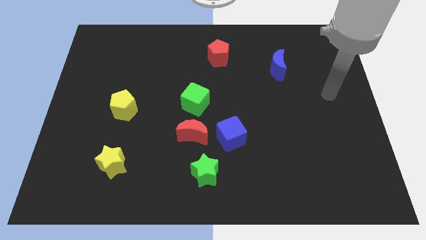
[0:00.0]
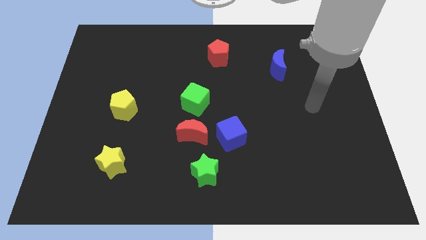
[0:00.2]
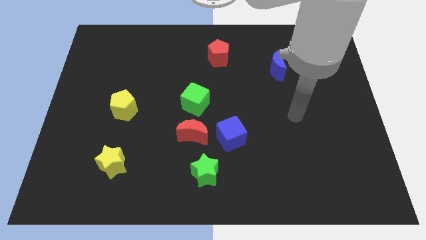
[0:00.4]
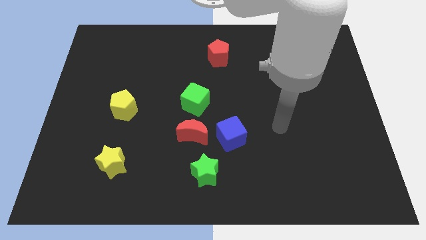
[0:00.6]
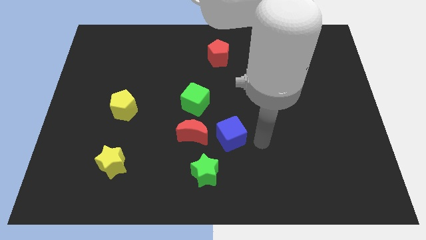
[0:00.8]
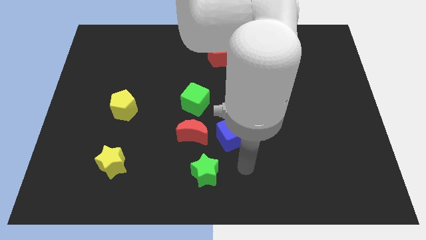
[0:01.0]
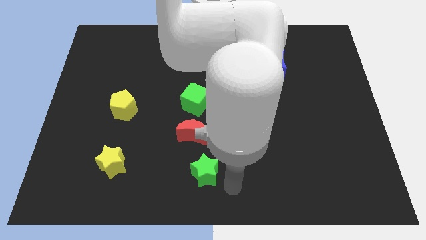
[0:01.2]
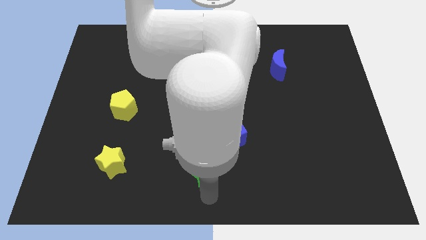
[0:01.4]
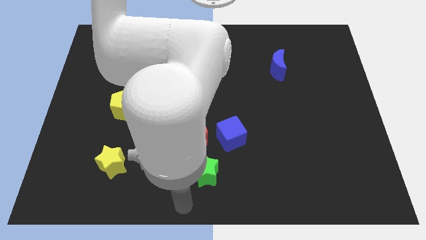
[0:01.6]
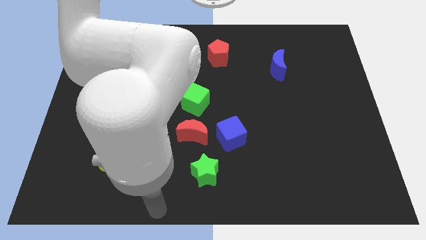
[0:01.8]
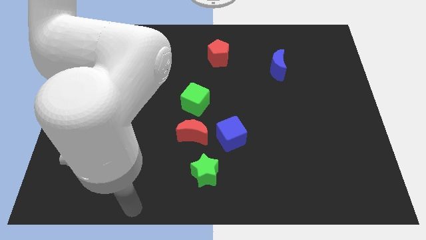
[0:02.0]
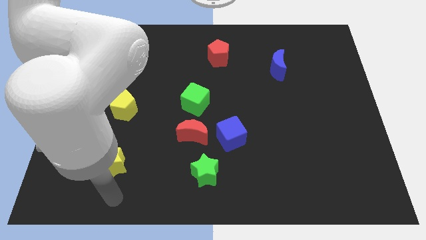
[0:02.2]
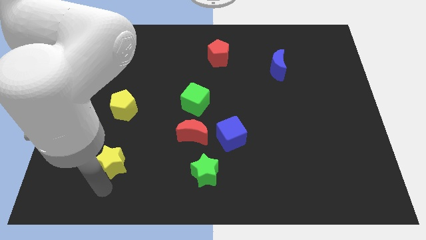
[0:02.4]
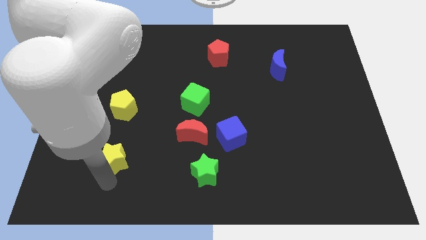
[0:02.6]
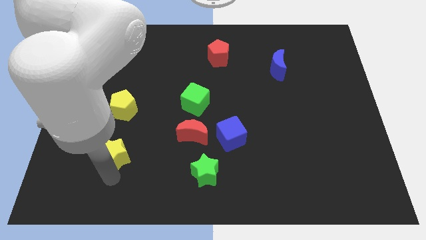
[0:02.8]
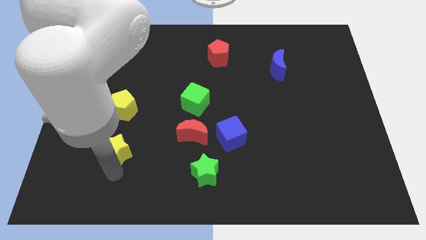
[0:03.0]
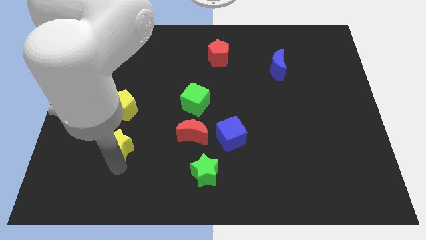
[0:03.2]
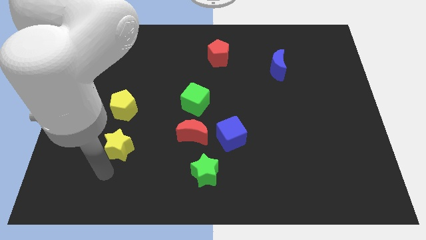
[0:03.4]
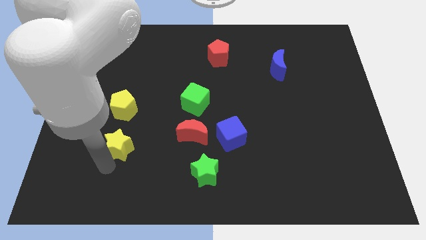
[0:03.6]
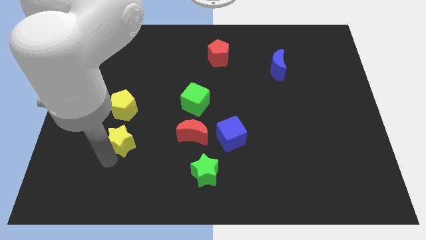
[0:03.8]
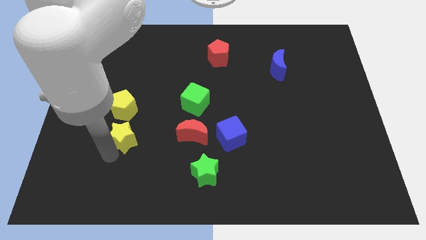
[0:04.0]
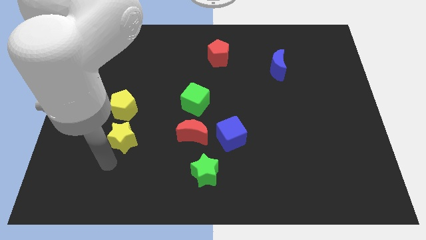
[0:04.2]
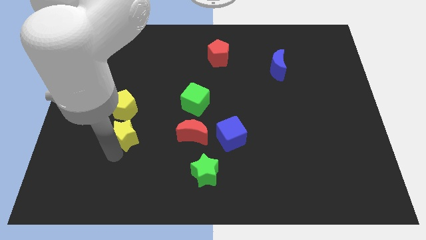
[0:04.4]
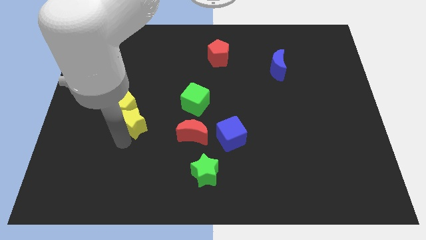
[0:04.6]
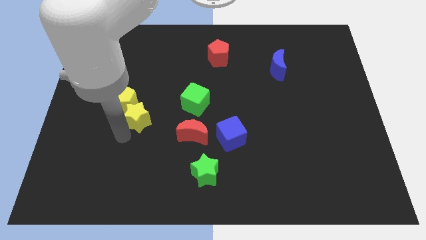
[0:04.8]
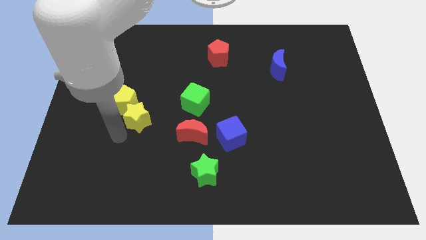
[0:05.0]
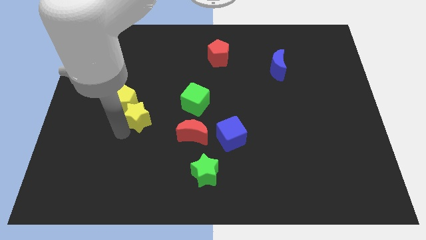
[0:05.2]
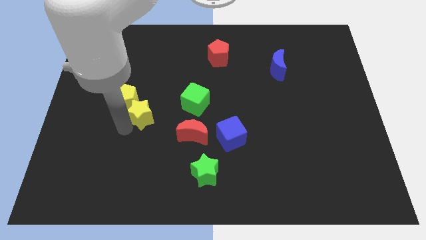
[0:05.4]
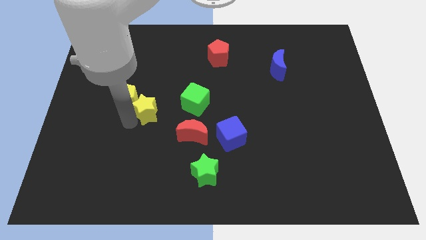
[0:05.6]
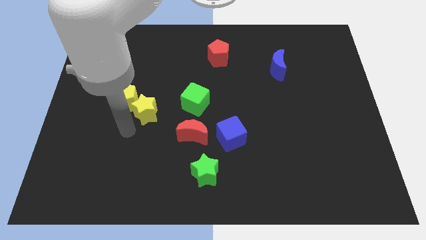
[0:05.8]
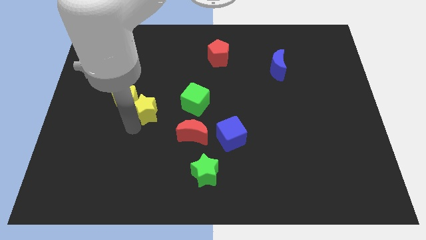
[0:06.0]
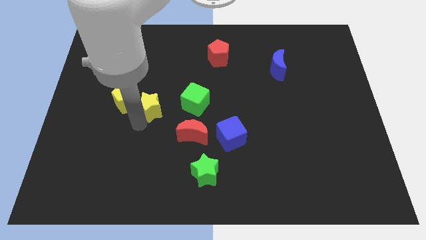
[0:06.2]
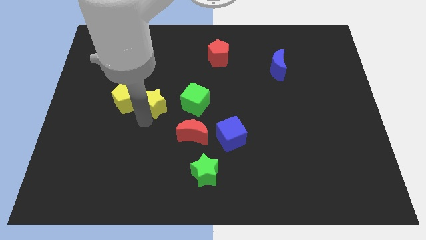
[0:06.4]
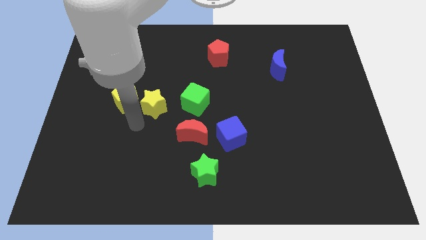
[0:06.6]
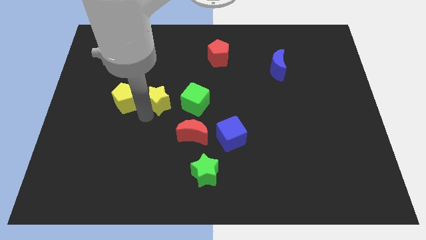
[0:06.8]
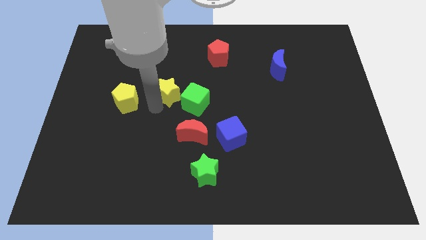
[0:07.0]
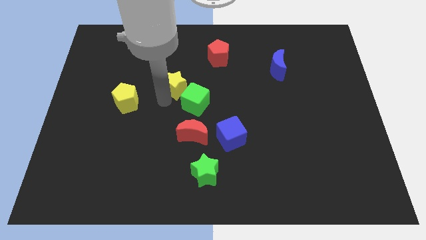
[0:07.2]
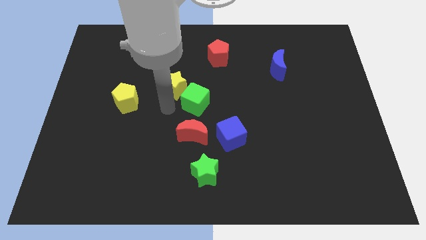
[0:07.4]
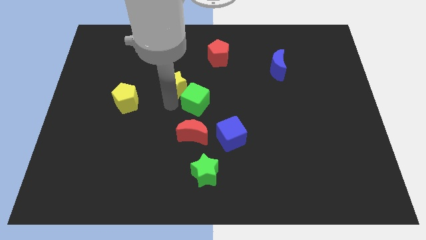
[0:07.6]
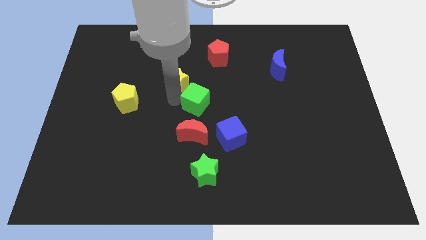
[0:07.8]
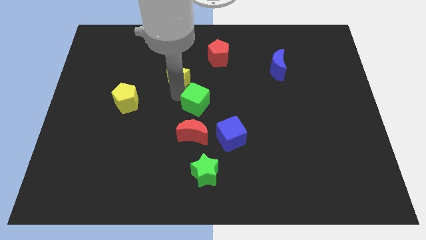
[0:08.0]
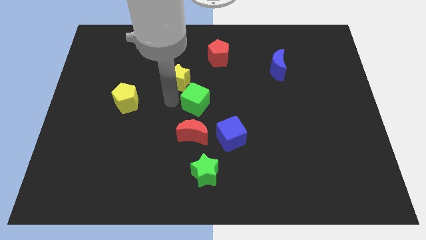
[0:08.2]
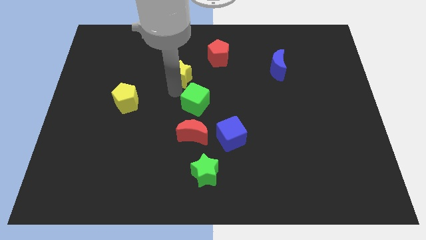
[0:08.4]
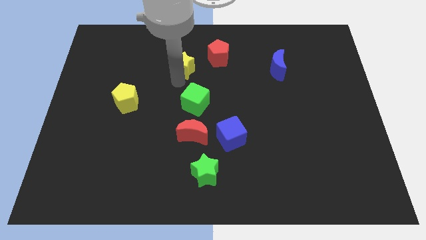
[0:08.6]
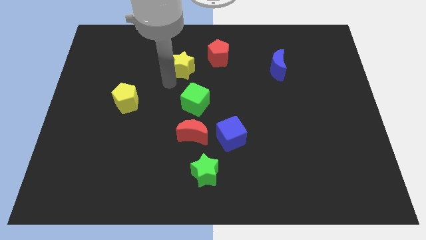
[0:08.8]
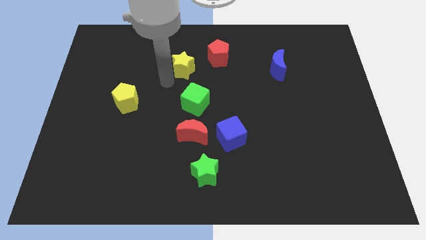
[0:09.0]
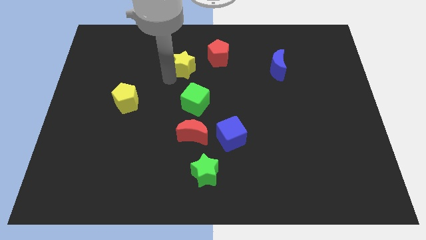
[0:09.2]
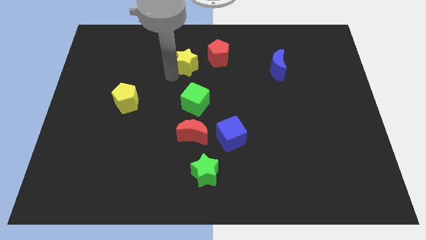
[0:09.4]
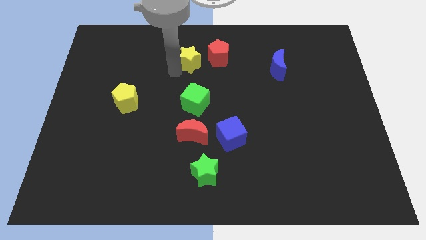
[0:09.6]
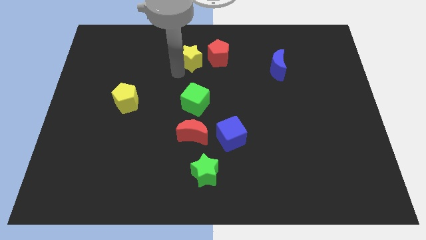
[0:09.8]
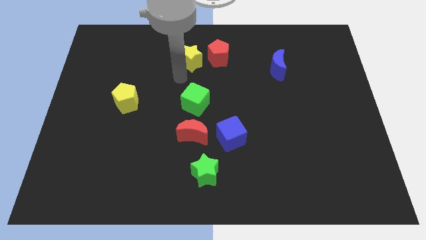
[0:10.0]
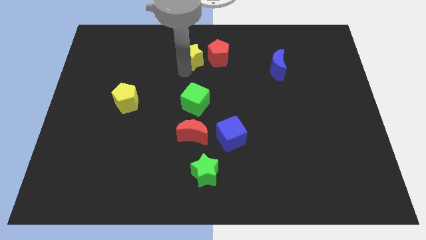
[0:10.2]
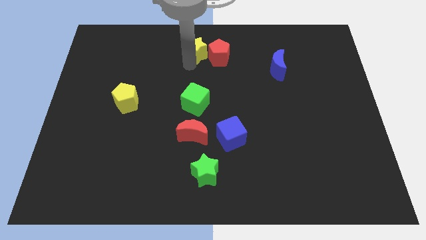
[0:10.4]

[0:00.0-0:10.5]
move the yellow star to the top side

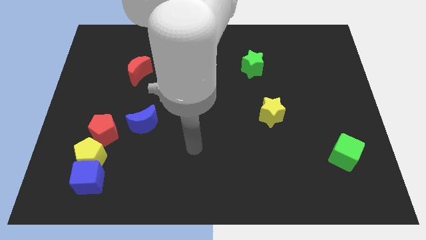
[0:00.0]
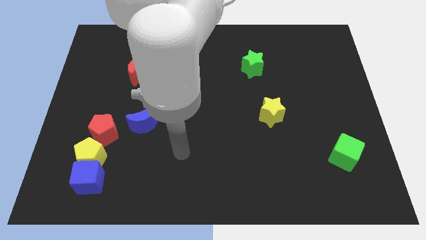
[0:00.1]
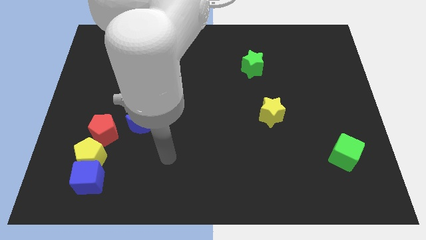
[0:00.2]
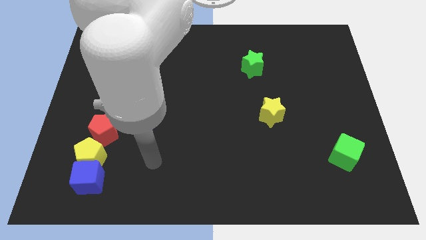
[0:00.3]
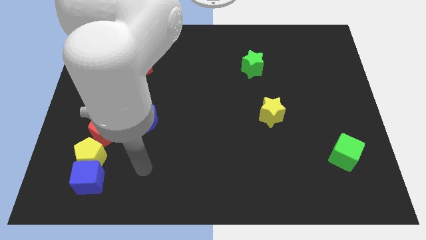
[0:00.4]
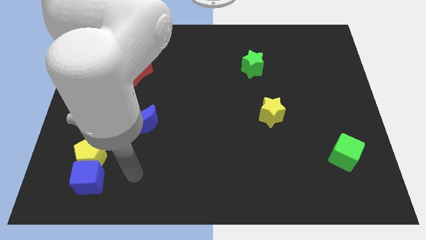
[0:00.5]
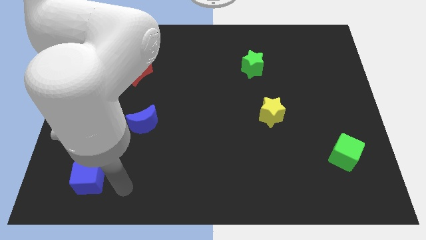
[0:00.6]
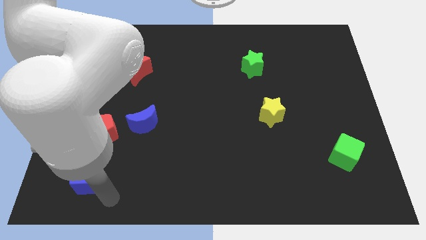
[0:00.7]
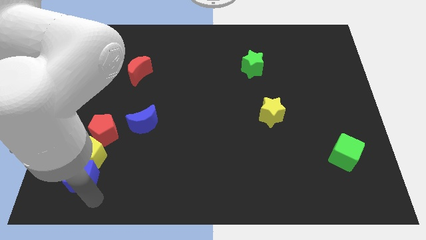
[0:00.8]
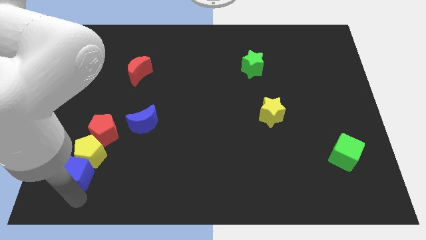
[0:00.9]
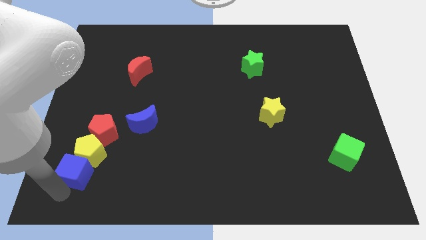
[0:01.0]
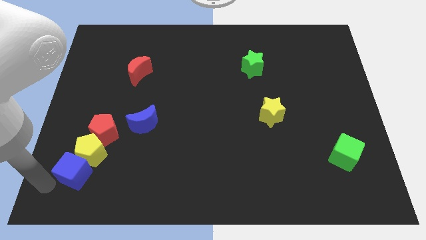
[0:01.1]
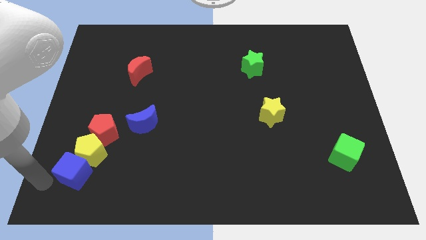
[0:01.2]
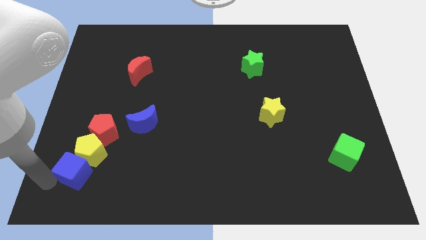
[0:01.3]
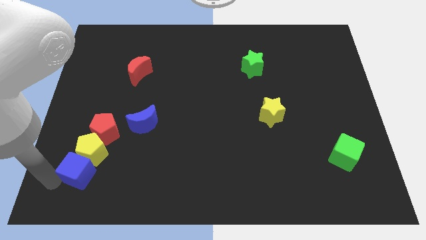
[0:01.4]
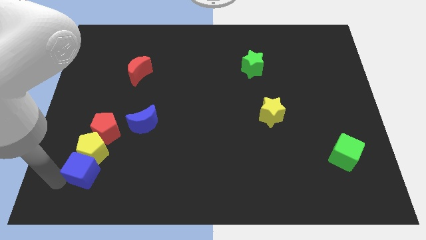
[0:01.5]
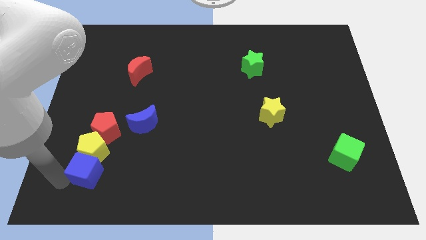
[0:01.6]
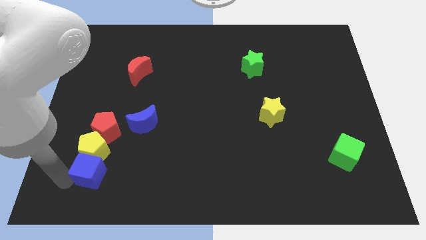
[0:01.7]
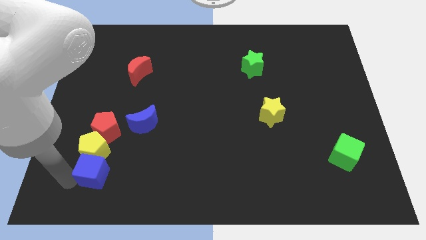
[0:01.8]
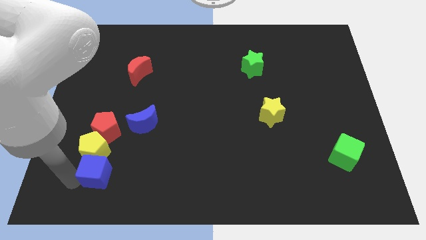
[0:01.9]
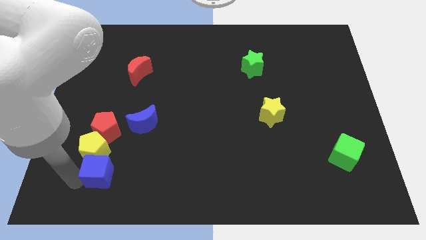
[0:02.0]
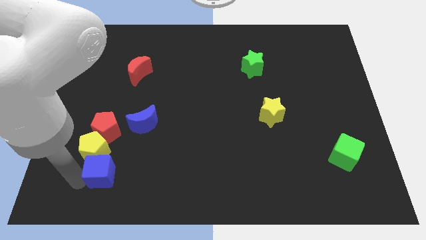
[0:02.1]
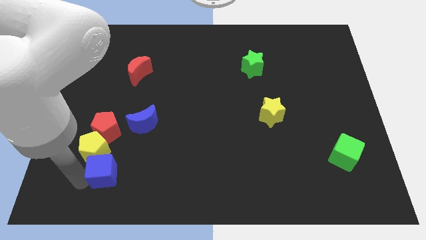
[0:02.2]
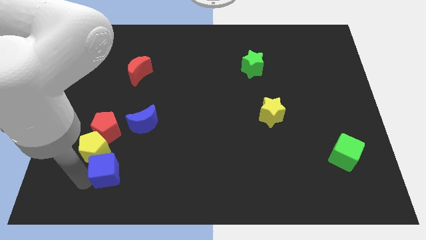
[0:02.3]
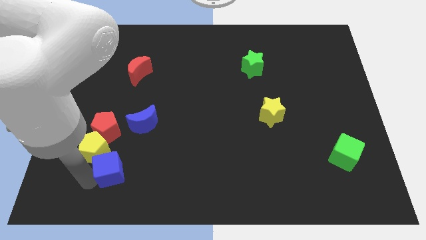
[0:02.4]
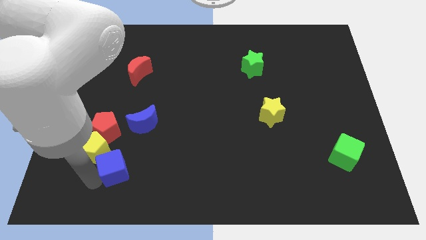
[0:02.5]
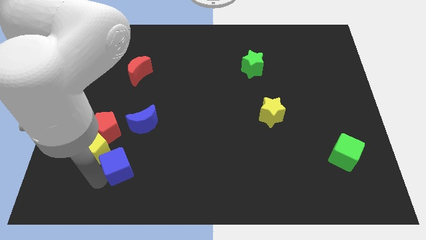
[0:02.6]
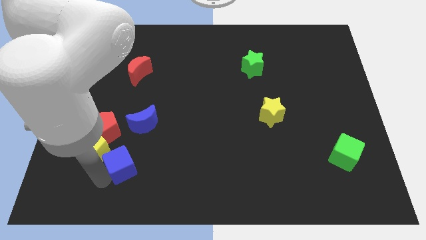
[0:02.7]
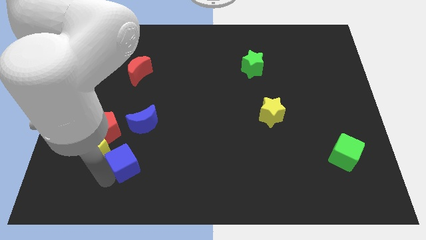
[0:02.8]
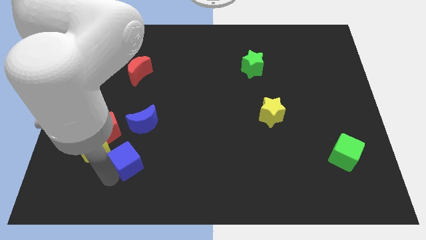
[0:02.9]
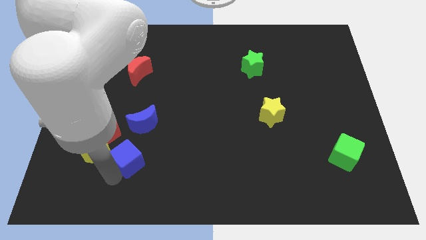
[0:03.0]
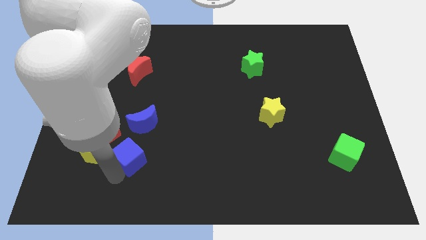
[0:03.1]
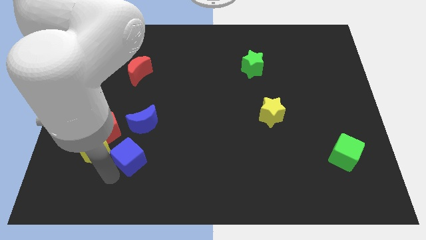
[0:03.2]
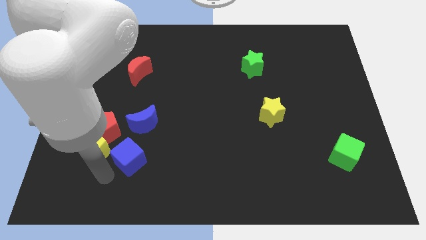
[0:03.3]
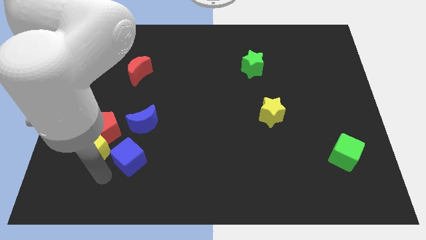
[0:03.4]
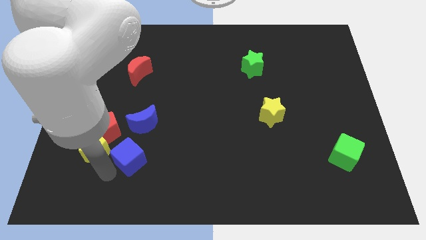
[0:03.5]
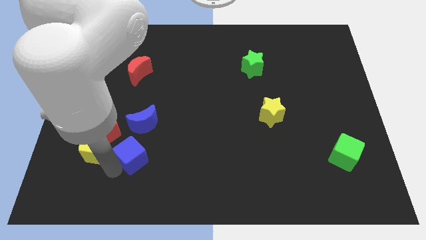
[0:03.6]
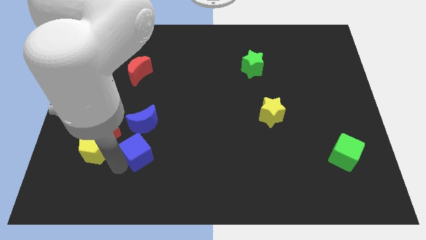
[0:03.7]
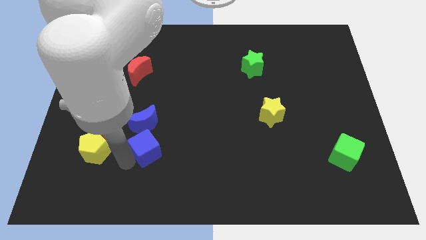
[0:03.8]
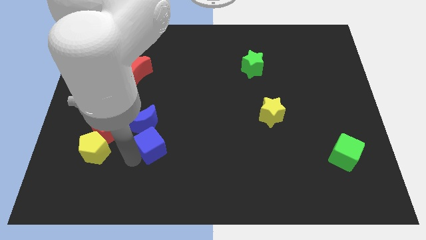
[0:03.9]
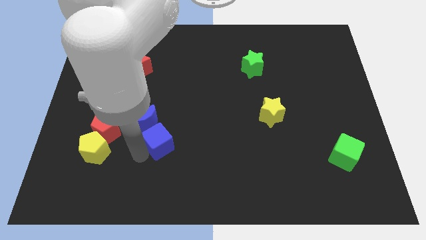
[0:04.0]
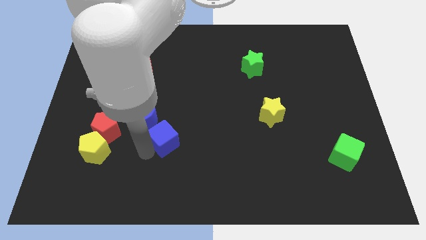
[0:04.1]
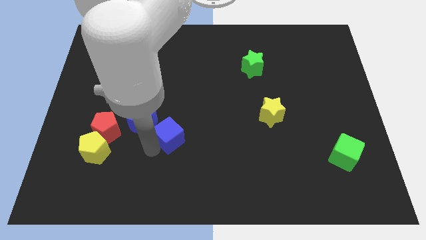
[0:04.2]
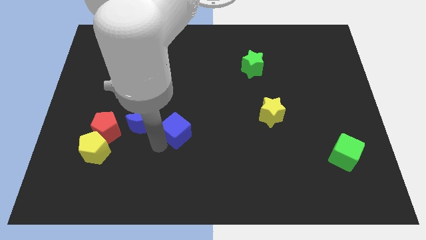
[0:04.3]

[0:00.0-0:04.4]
move the blue cube to the middle
